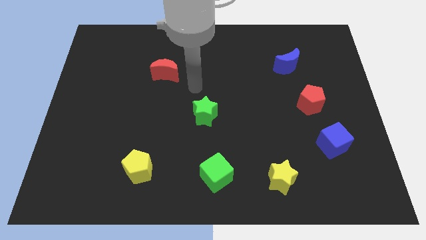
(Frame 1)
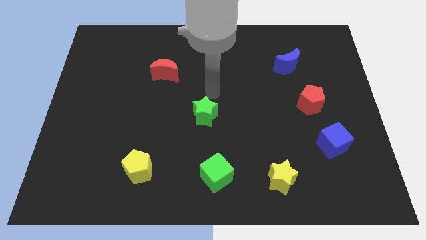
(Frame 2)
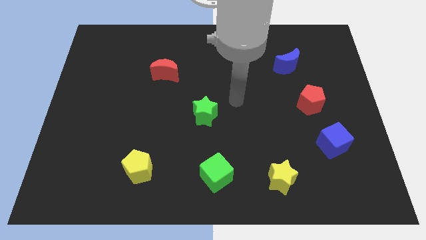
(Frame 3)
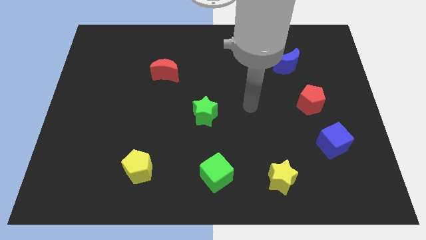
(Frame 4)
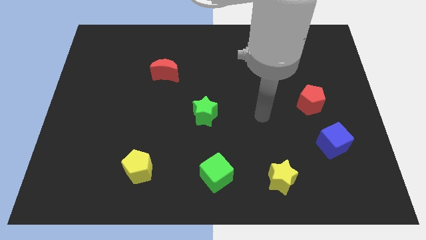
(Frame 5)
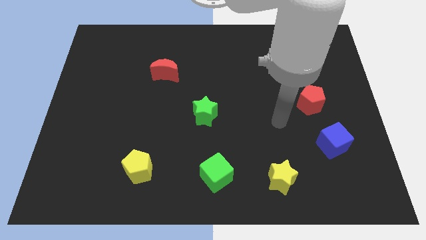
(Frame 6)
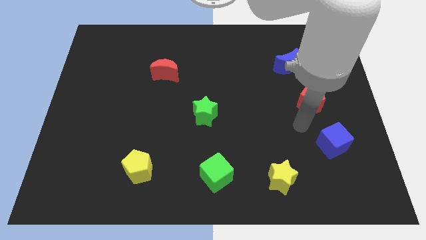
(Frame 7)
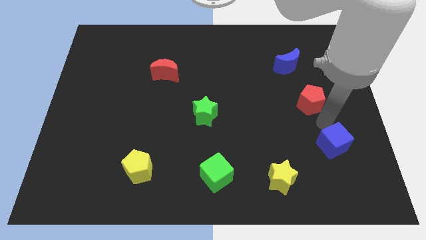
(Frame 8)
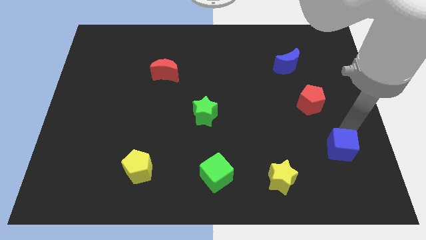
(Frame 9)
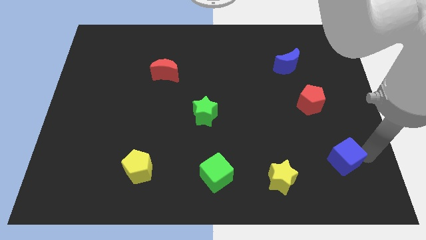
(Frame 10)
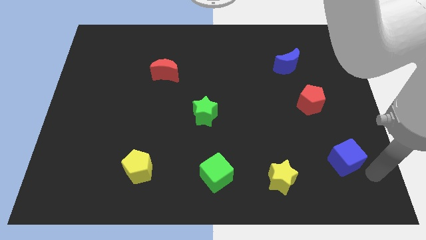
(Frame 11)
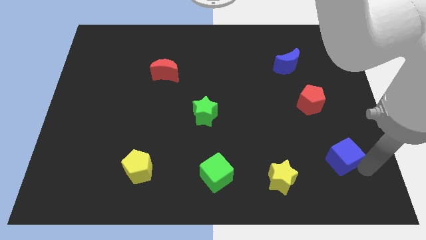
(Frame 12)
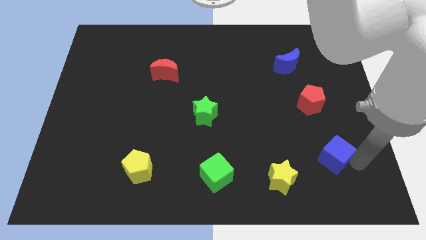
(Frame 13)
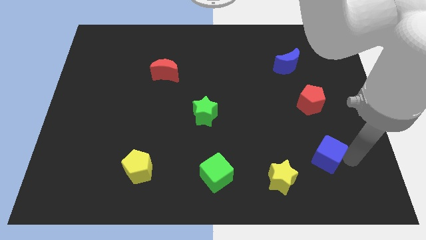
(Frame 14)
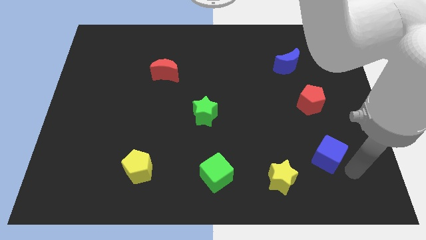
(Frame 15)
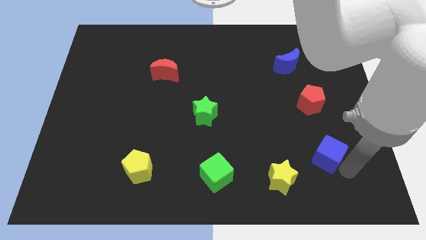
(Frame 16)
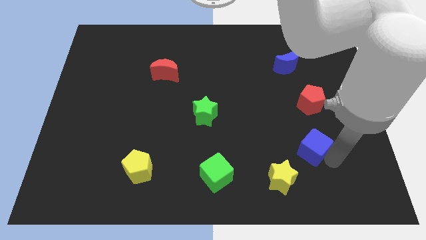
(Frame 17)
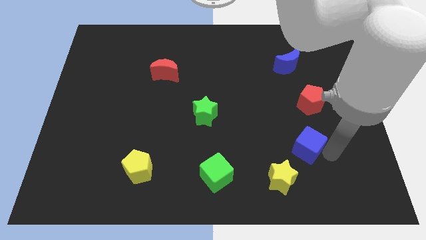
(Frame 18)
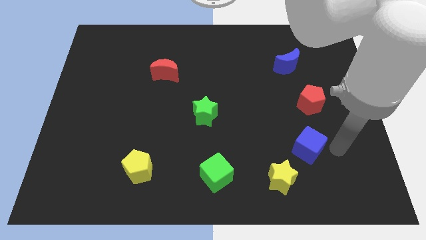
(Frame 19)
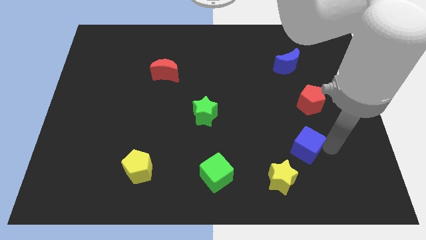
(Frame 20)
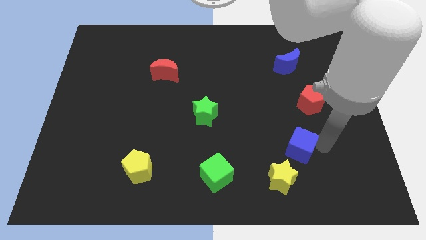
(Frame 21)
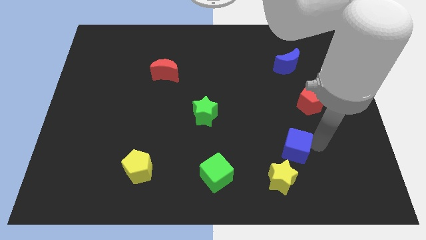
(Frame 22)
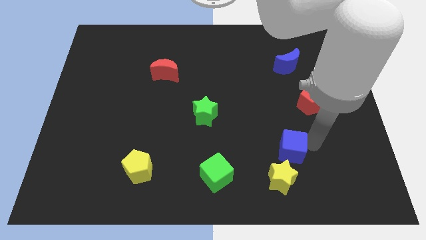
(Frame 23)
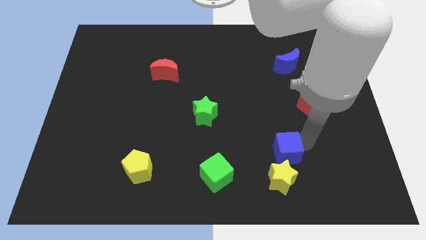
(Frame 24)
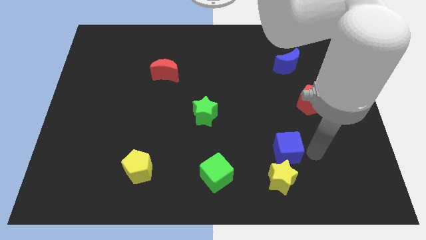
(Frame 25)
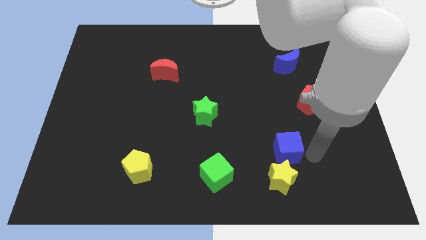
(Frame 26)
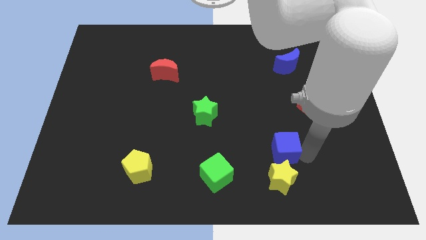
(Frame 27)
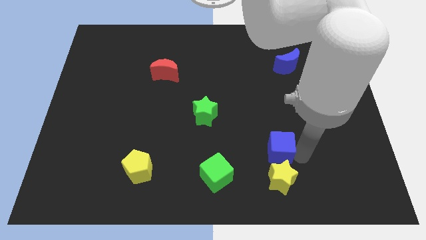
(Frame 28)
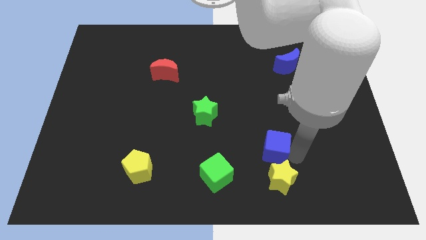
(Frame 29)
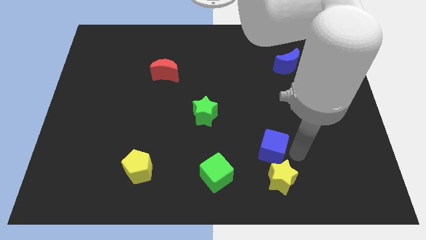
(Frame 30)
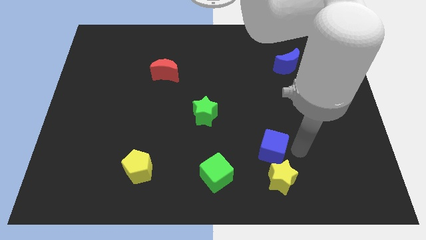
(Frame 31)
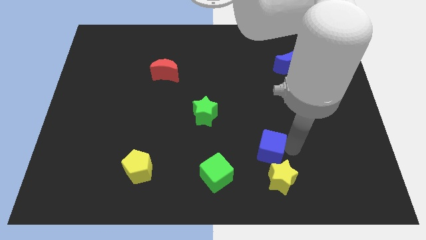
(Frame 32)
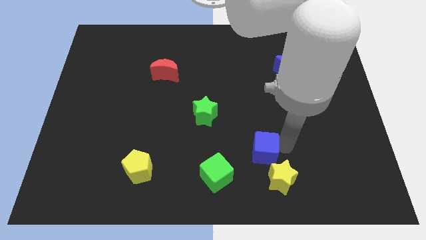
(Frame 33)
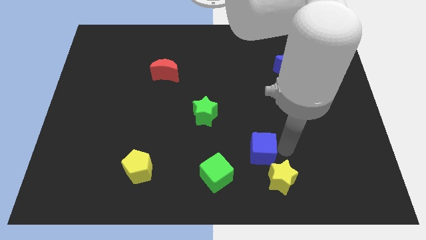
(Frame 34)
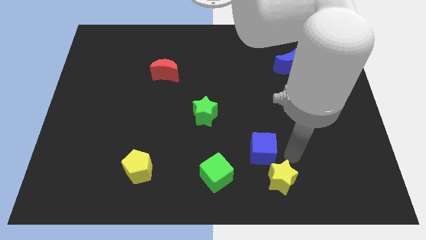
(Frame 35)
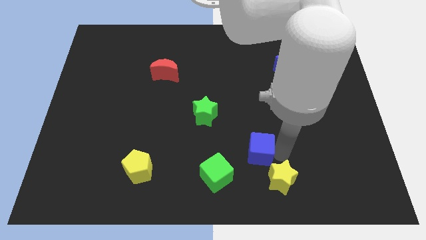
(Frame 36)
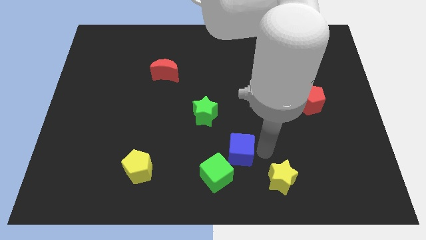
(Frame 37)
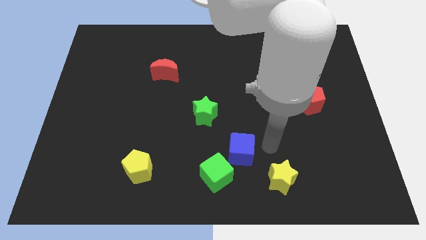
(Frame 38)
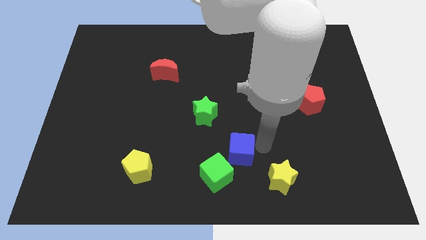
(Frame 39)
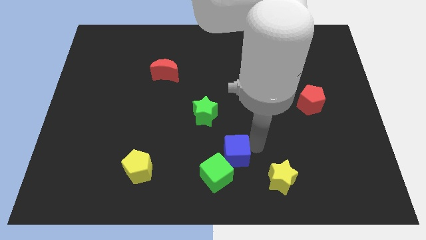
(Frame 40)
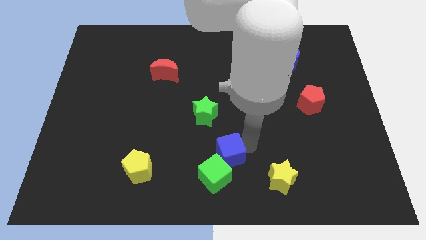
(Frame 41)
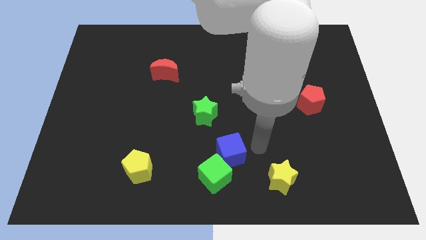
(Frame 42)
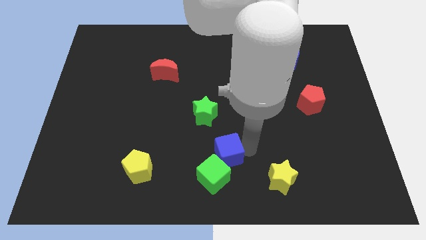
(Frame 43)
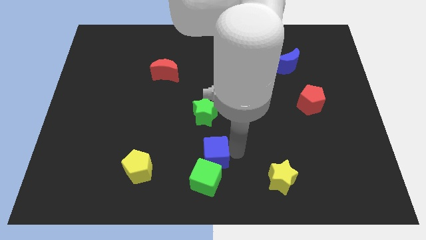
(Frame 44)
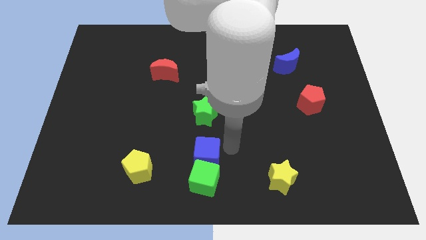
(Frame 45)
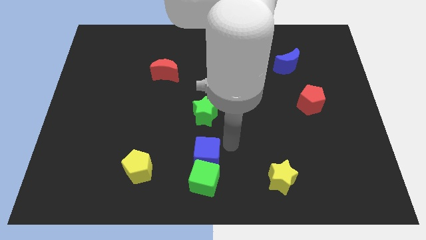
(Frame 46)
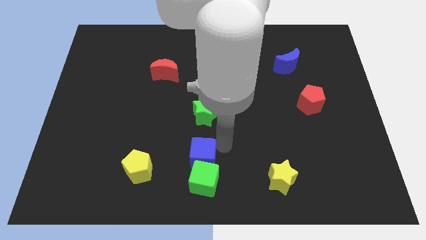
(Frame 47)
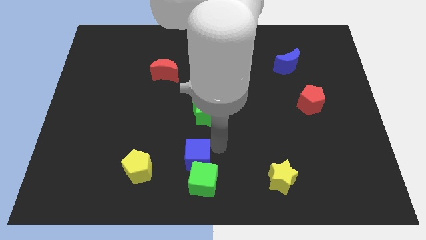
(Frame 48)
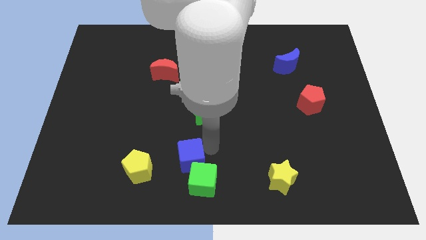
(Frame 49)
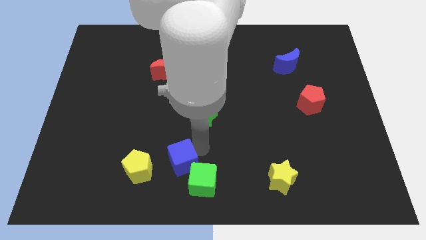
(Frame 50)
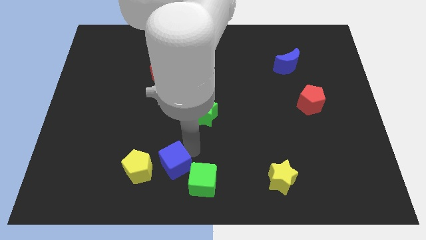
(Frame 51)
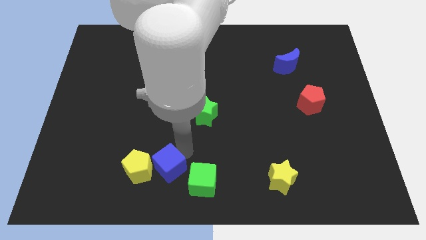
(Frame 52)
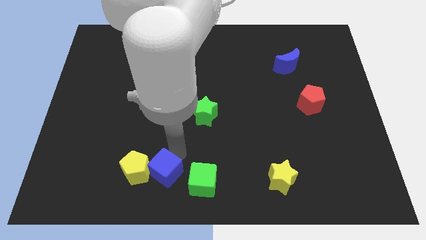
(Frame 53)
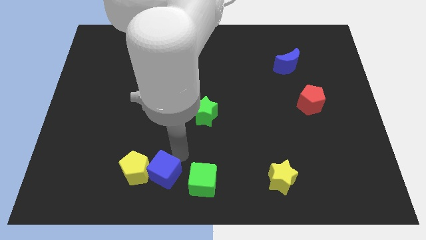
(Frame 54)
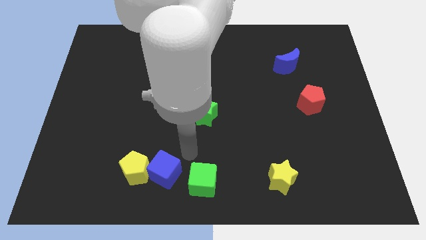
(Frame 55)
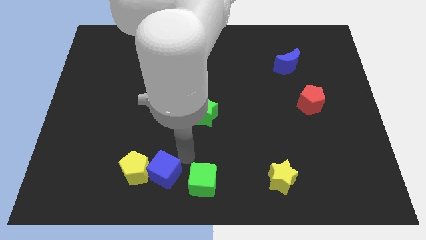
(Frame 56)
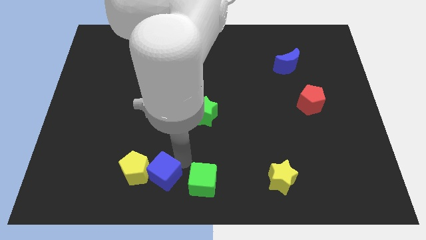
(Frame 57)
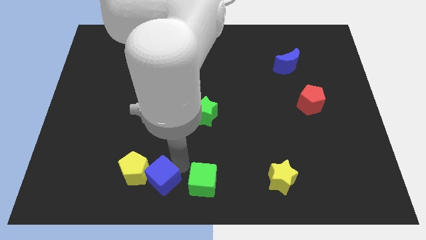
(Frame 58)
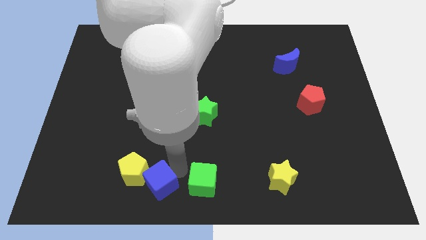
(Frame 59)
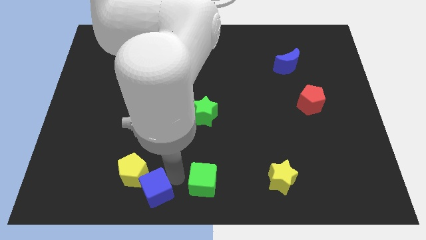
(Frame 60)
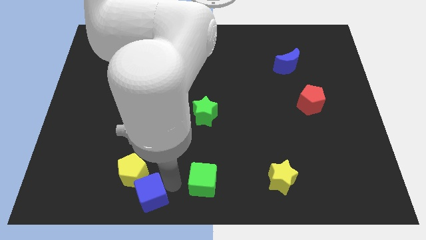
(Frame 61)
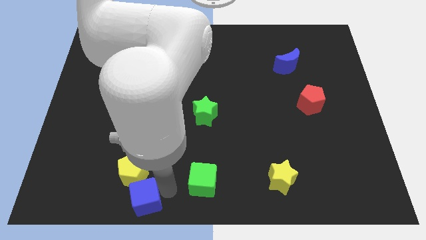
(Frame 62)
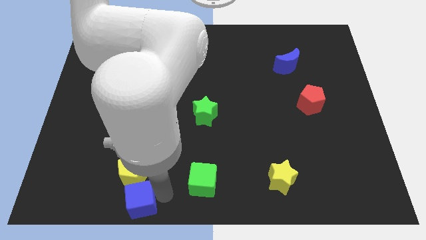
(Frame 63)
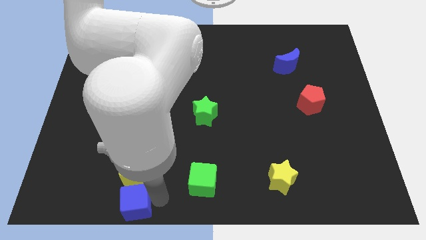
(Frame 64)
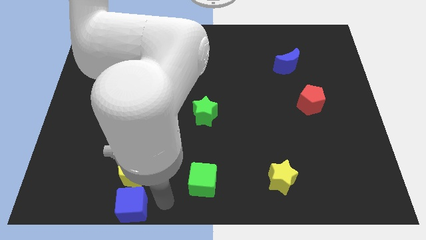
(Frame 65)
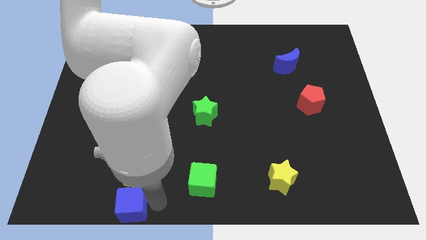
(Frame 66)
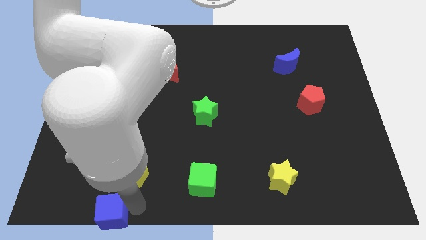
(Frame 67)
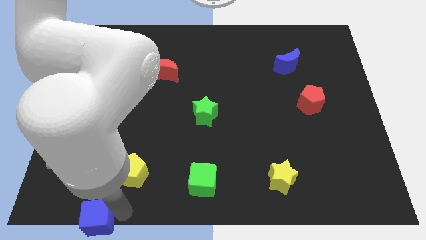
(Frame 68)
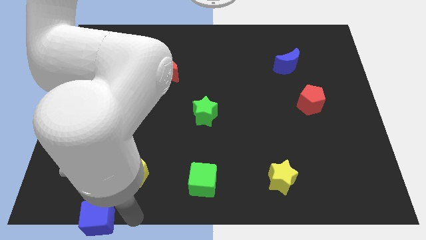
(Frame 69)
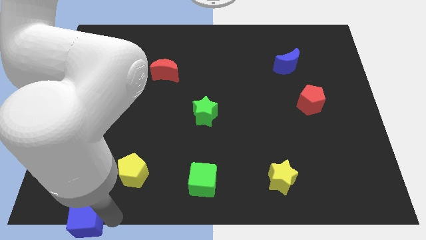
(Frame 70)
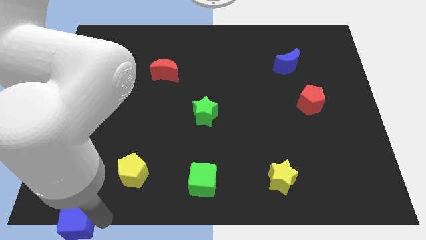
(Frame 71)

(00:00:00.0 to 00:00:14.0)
put the blue cube to the lower left corner
